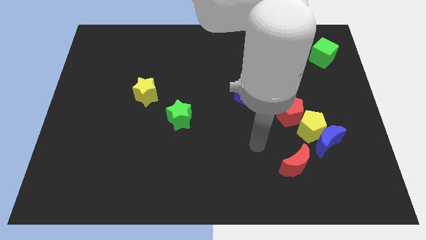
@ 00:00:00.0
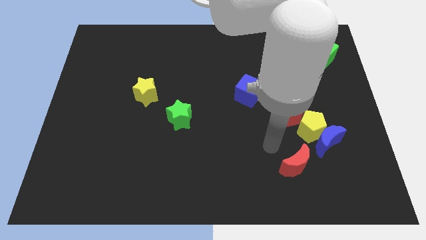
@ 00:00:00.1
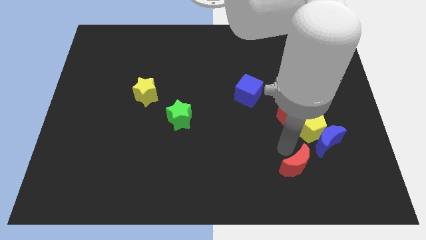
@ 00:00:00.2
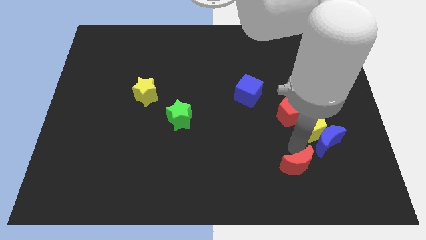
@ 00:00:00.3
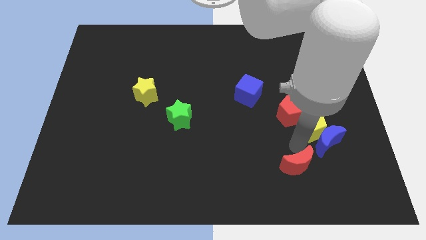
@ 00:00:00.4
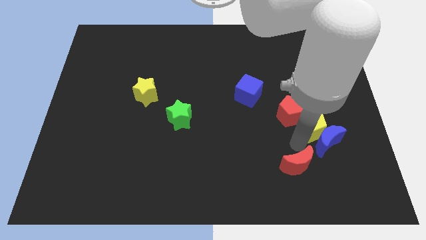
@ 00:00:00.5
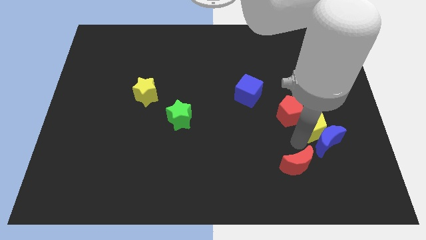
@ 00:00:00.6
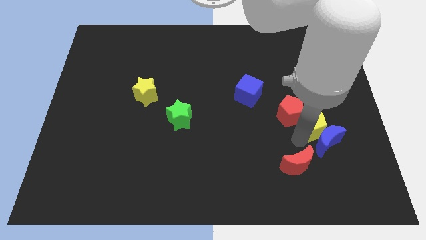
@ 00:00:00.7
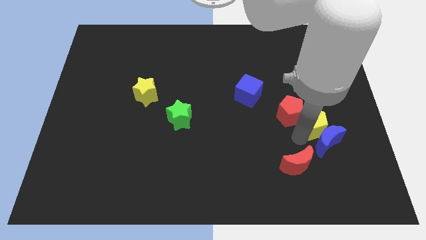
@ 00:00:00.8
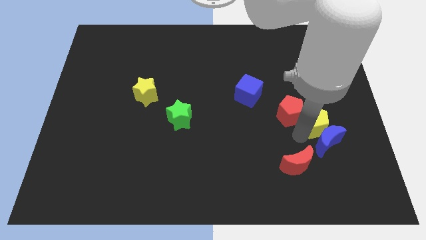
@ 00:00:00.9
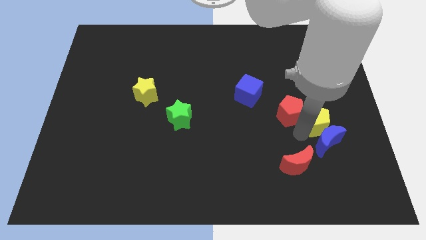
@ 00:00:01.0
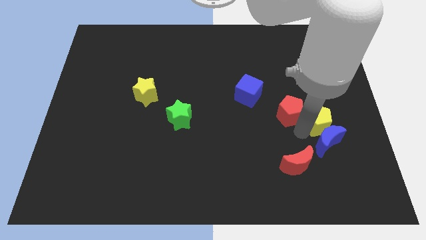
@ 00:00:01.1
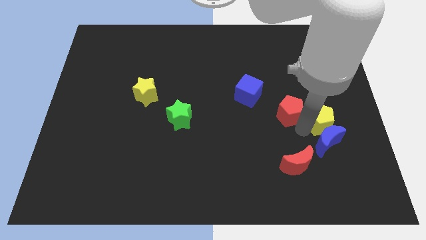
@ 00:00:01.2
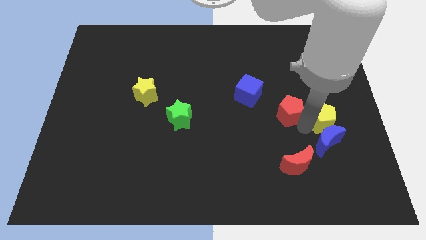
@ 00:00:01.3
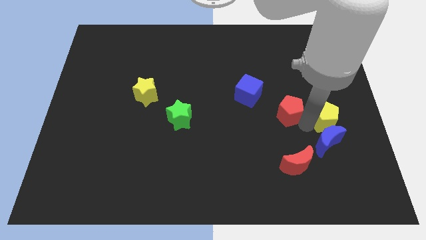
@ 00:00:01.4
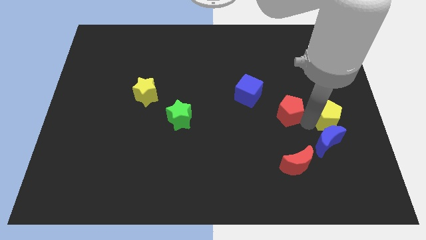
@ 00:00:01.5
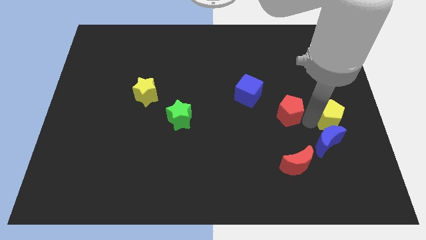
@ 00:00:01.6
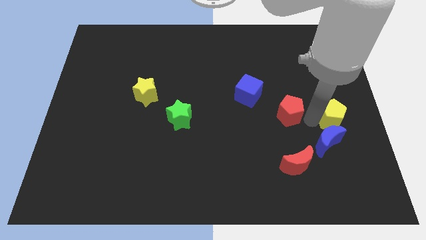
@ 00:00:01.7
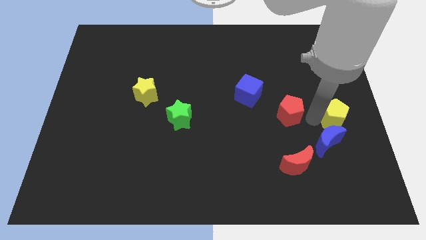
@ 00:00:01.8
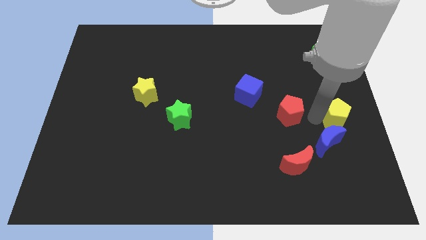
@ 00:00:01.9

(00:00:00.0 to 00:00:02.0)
move the yellow pentagon away from the clump

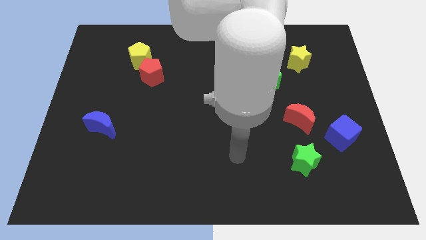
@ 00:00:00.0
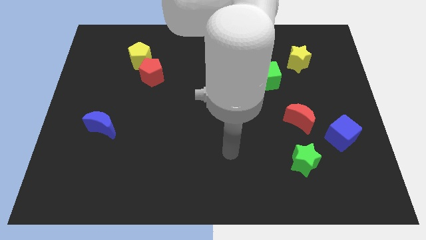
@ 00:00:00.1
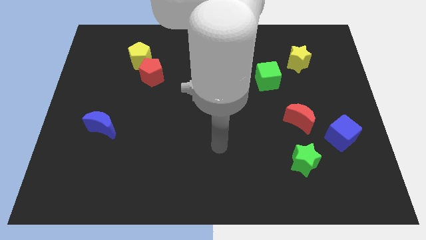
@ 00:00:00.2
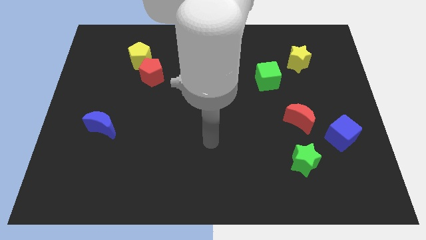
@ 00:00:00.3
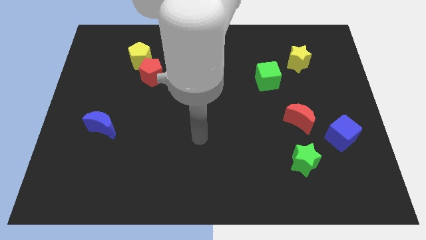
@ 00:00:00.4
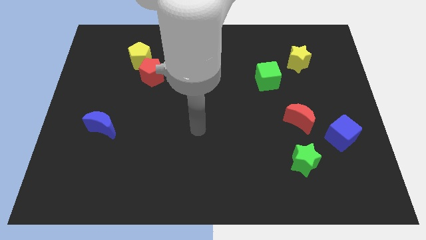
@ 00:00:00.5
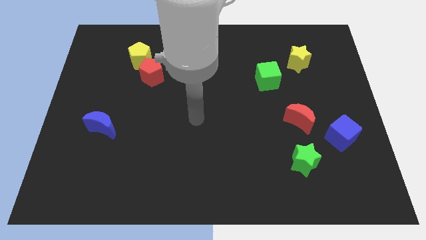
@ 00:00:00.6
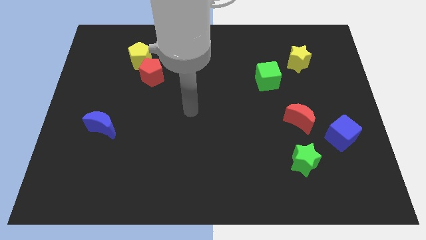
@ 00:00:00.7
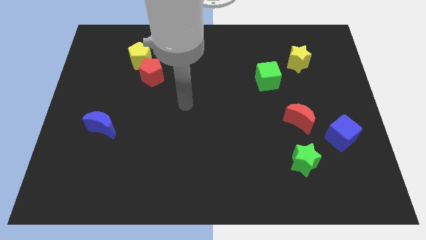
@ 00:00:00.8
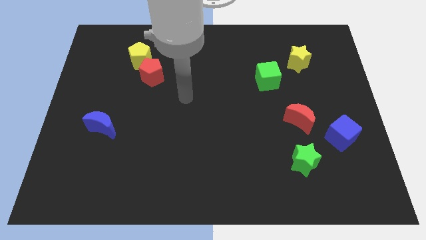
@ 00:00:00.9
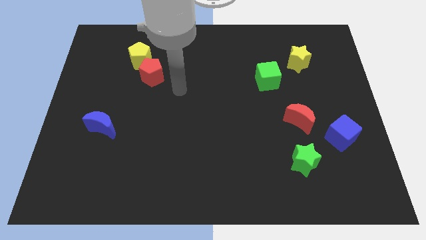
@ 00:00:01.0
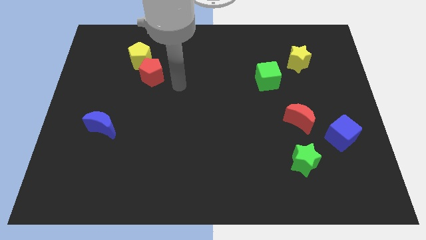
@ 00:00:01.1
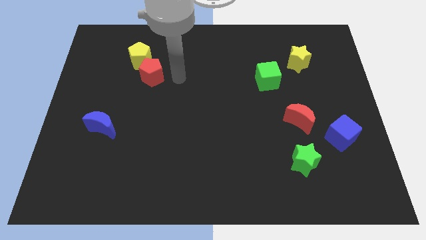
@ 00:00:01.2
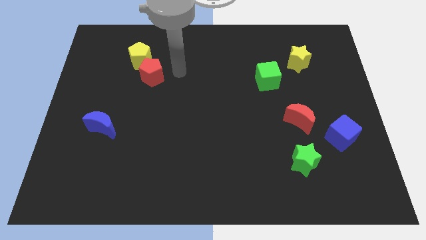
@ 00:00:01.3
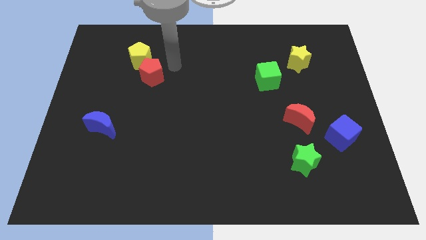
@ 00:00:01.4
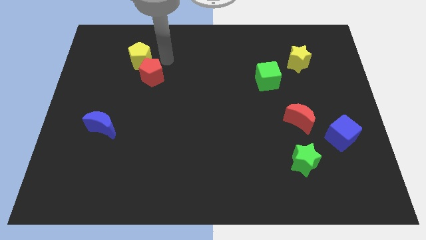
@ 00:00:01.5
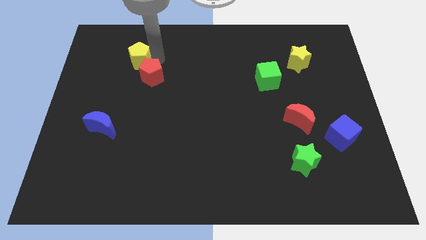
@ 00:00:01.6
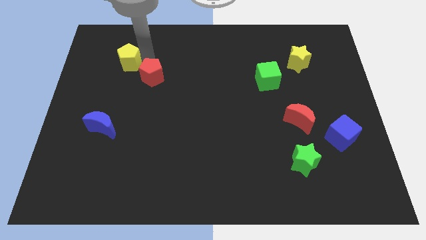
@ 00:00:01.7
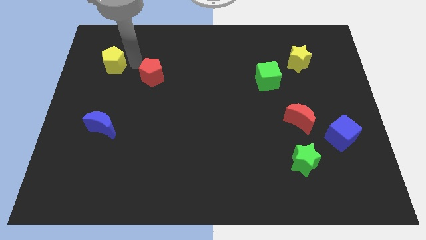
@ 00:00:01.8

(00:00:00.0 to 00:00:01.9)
pull the red pentagon apart from the yellow pentagon

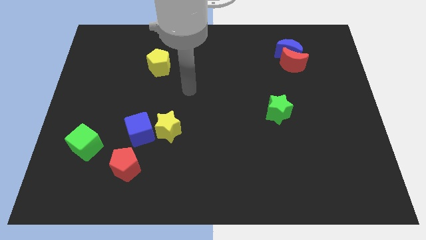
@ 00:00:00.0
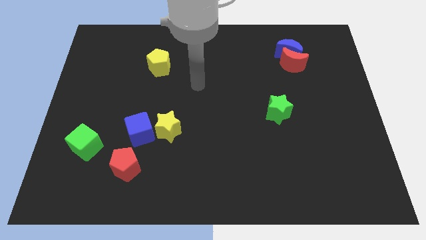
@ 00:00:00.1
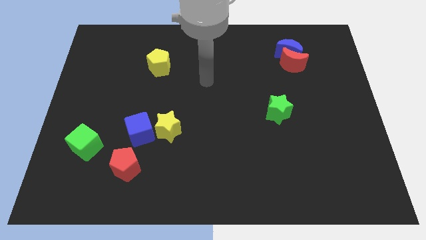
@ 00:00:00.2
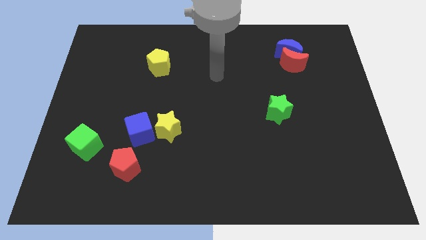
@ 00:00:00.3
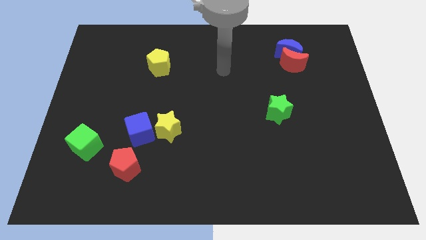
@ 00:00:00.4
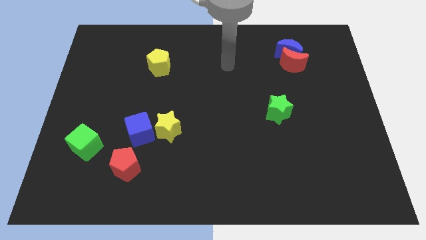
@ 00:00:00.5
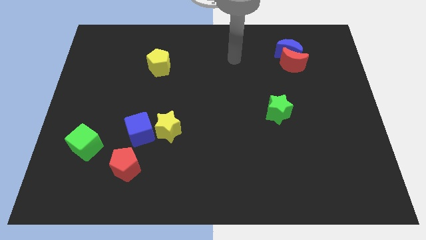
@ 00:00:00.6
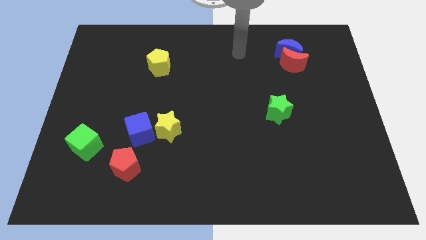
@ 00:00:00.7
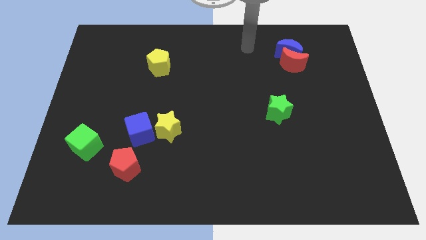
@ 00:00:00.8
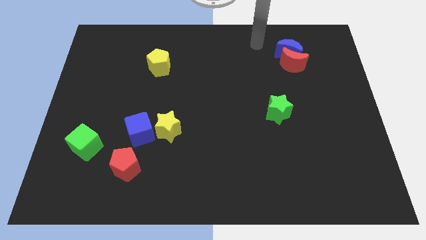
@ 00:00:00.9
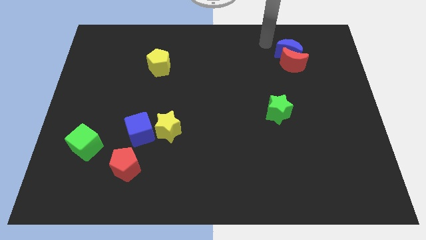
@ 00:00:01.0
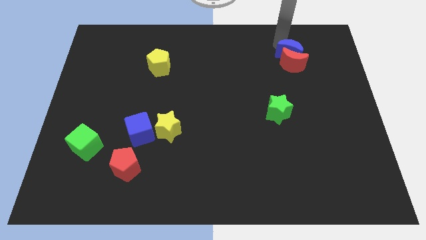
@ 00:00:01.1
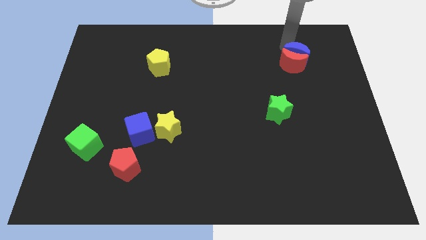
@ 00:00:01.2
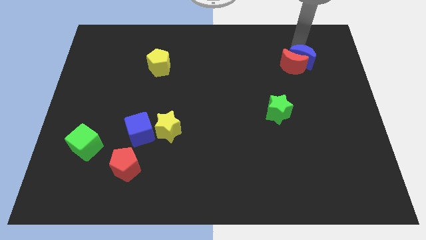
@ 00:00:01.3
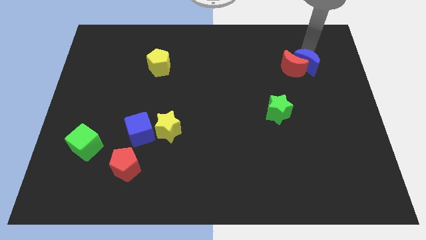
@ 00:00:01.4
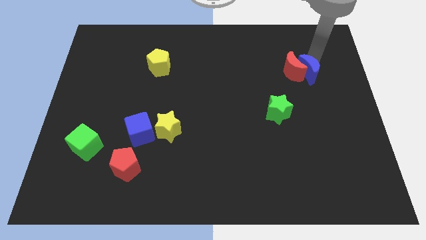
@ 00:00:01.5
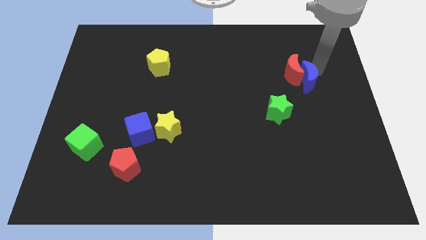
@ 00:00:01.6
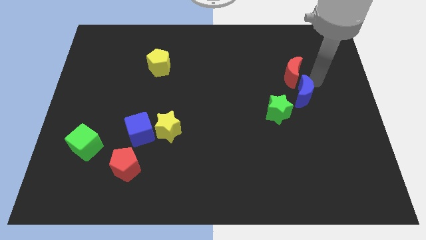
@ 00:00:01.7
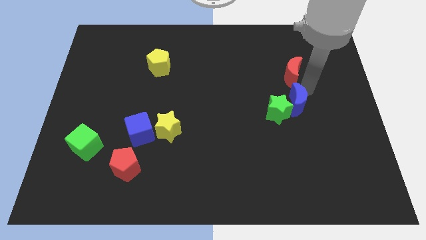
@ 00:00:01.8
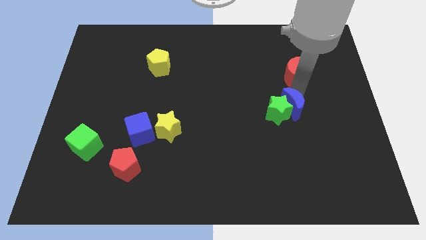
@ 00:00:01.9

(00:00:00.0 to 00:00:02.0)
separate the red moon from the blue moon

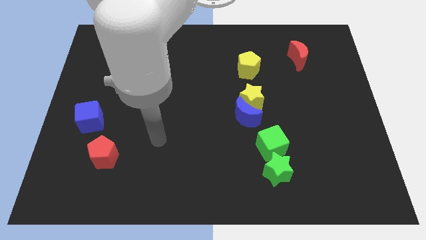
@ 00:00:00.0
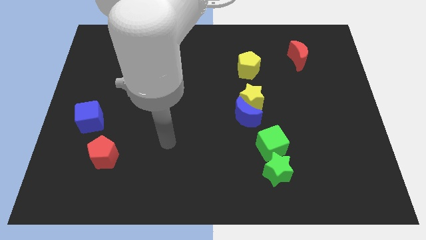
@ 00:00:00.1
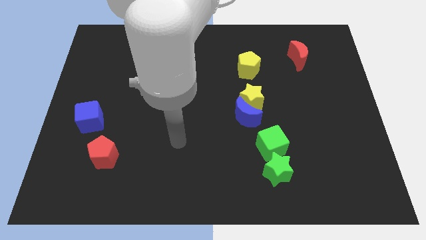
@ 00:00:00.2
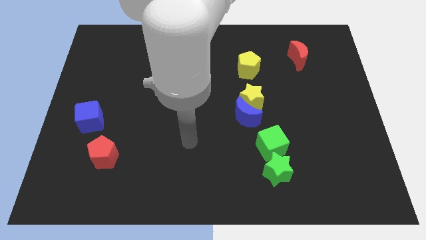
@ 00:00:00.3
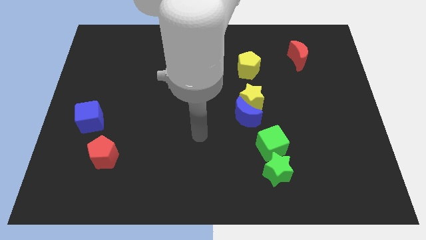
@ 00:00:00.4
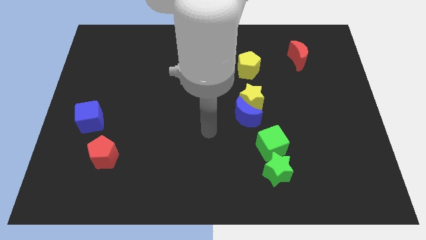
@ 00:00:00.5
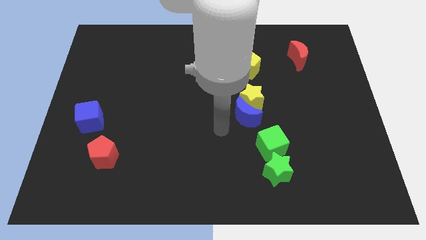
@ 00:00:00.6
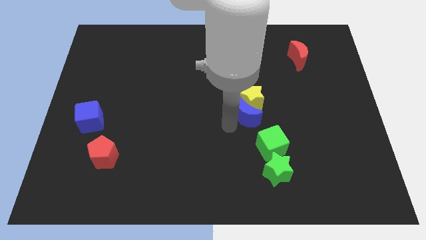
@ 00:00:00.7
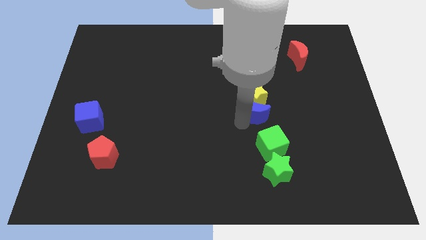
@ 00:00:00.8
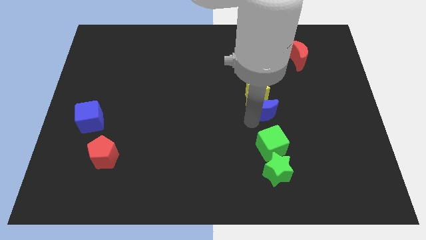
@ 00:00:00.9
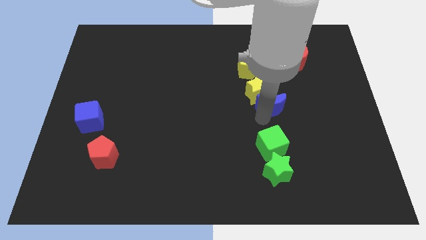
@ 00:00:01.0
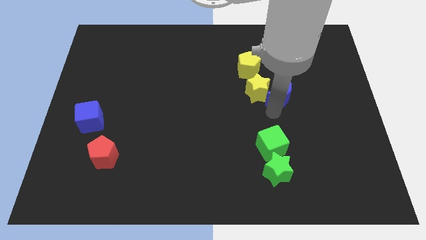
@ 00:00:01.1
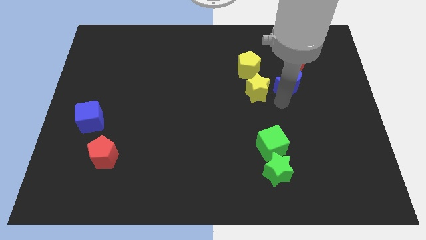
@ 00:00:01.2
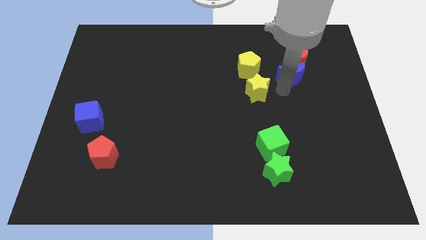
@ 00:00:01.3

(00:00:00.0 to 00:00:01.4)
move the yellow star away from the blue moon

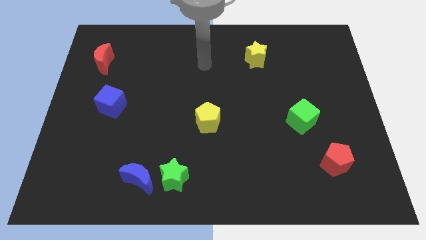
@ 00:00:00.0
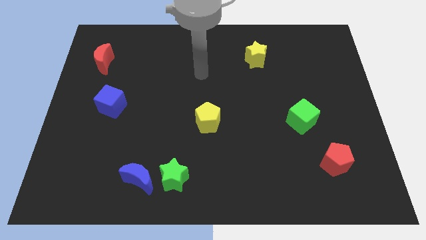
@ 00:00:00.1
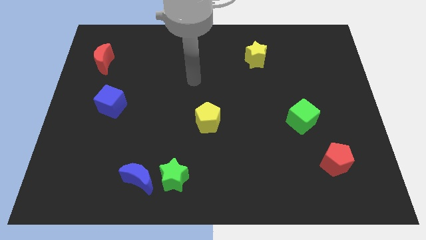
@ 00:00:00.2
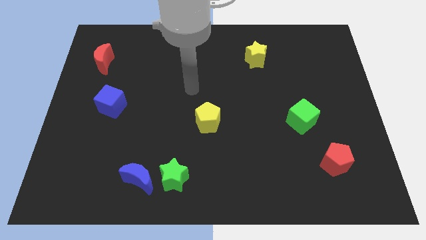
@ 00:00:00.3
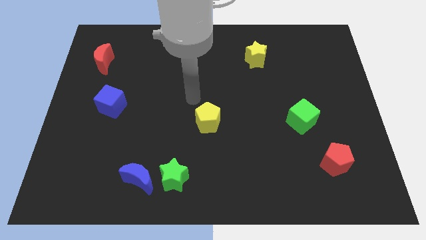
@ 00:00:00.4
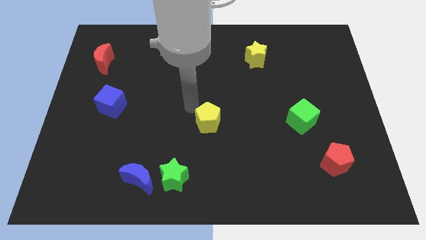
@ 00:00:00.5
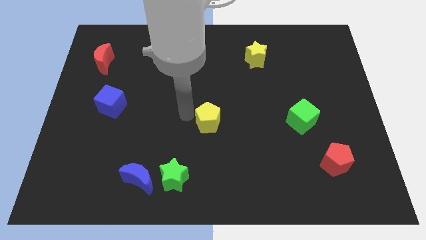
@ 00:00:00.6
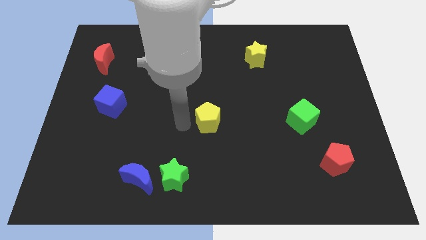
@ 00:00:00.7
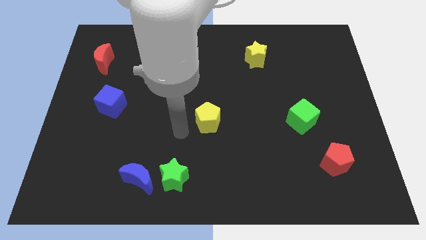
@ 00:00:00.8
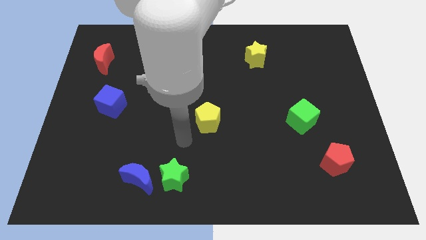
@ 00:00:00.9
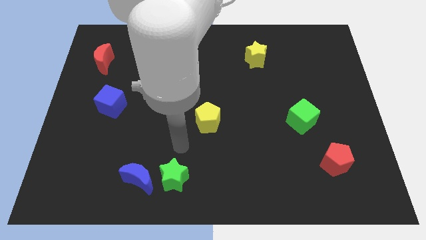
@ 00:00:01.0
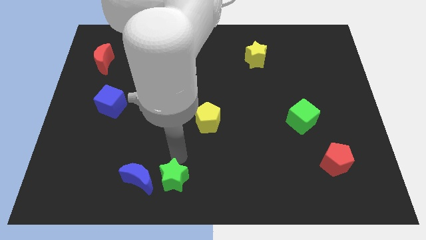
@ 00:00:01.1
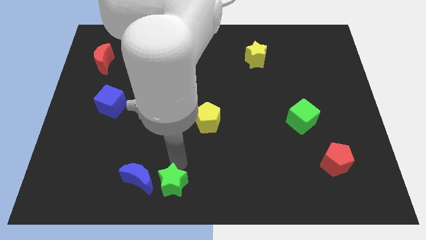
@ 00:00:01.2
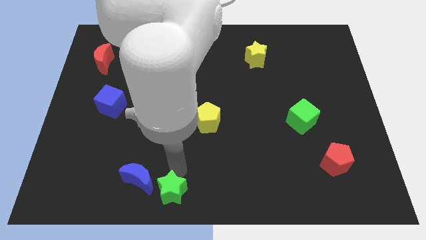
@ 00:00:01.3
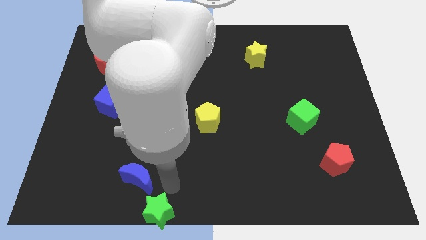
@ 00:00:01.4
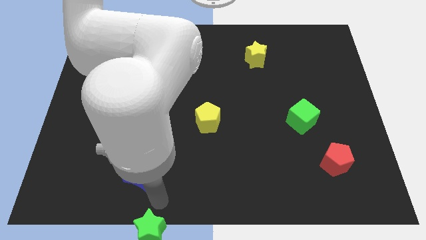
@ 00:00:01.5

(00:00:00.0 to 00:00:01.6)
pull the blue moon apart from the green star

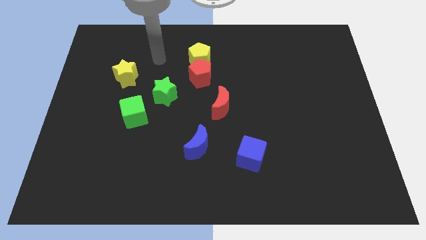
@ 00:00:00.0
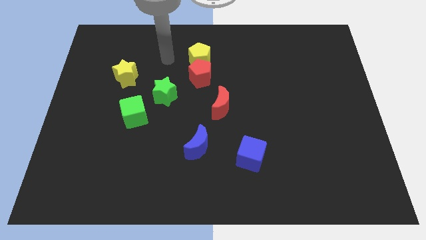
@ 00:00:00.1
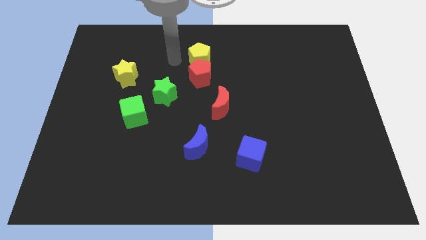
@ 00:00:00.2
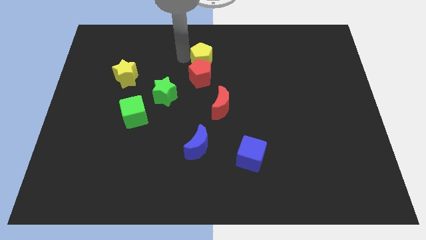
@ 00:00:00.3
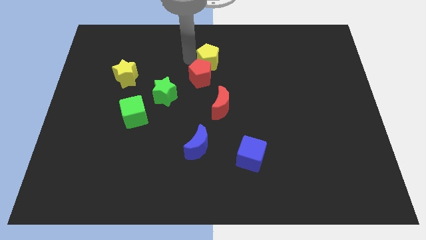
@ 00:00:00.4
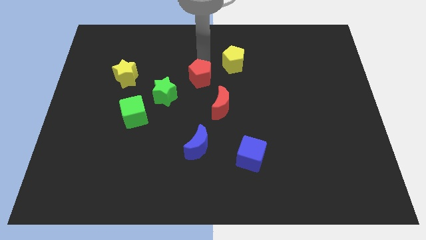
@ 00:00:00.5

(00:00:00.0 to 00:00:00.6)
separate the red pentagon from the yellow pentagon
